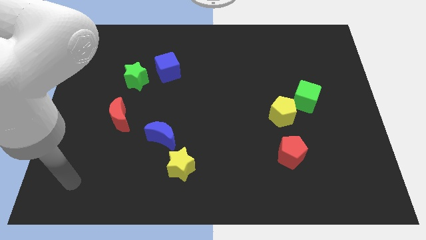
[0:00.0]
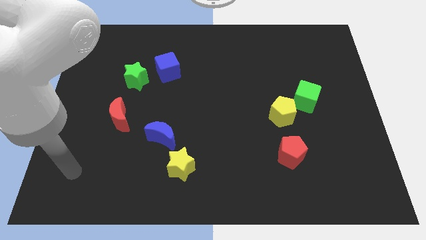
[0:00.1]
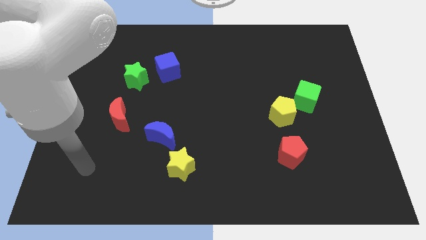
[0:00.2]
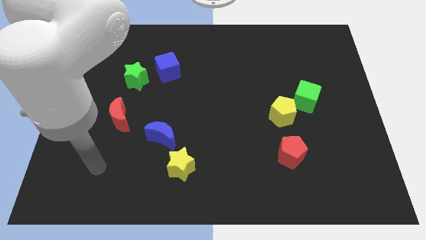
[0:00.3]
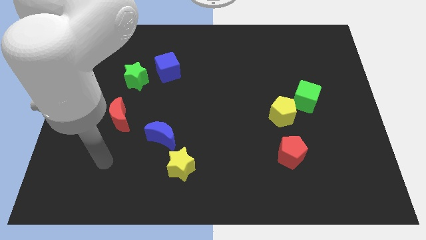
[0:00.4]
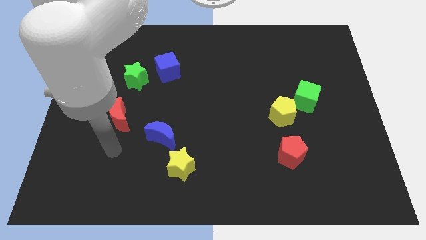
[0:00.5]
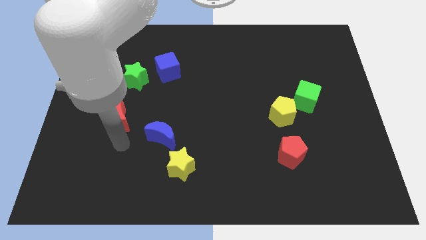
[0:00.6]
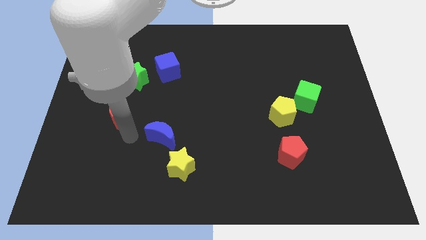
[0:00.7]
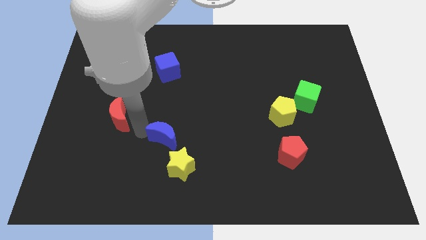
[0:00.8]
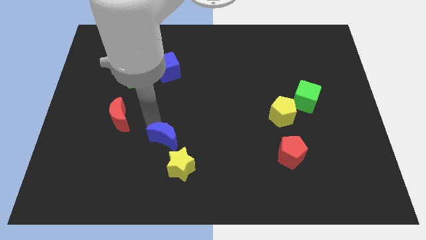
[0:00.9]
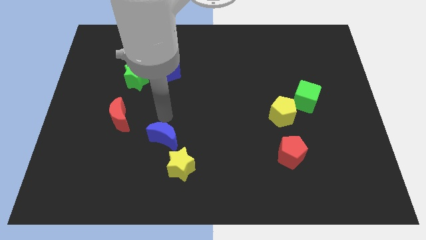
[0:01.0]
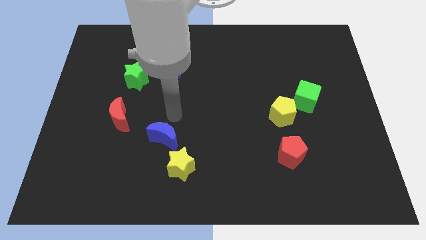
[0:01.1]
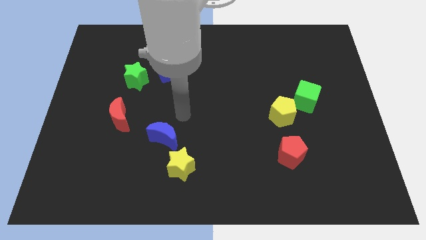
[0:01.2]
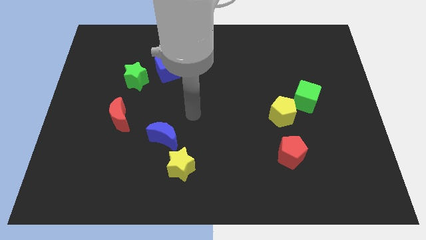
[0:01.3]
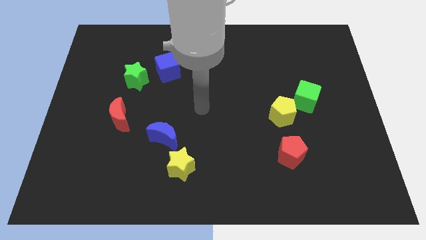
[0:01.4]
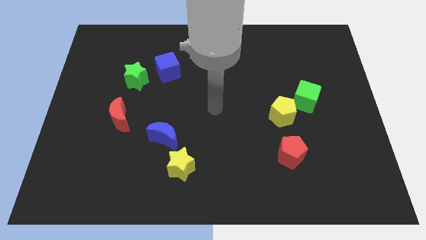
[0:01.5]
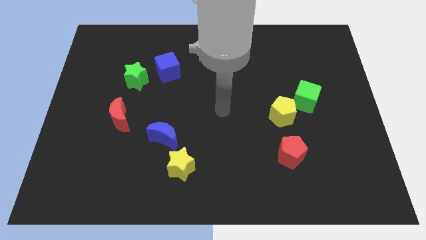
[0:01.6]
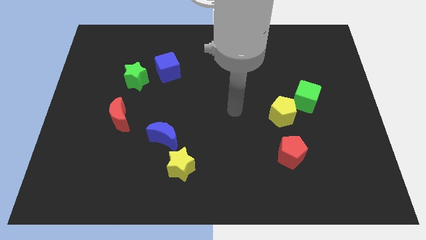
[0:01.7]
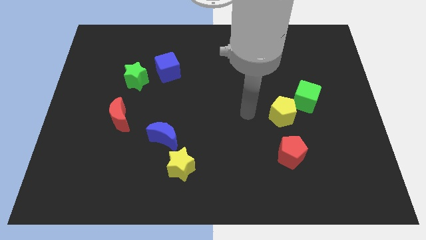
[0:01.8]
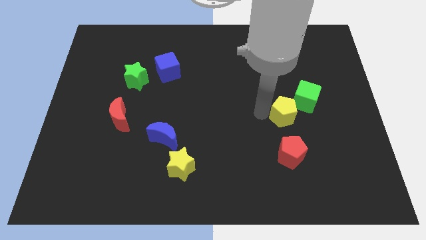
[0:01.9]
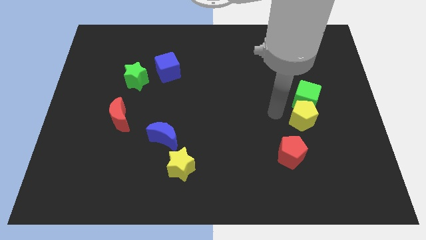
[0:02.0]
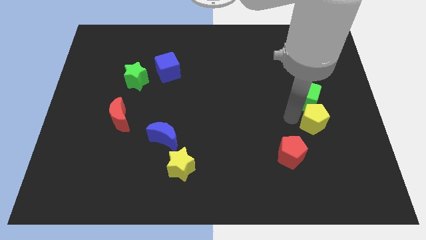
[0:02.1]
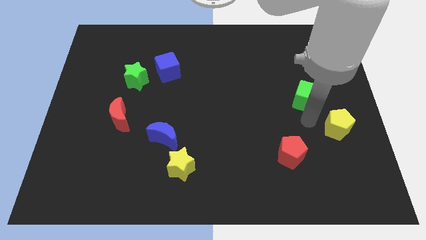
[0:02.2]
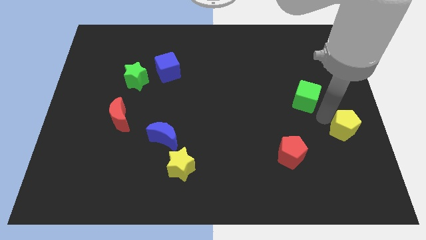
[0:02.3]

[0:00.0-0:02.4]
separate the green cube from the yellow pentagon

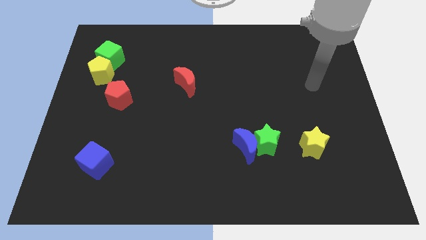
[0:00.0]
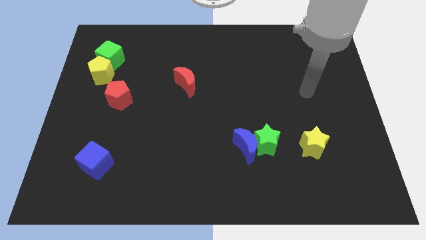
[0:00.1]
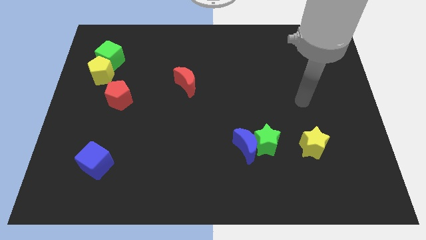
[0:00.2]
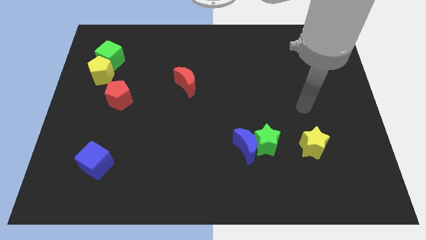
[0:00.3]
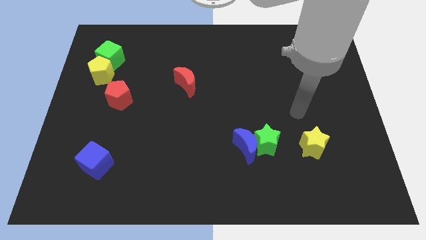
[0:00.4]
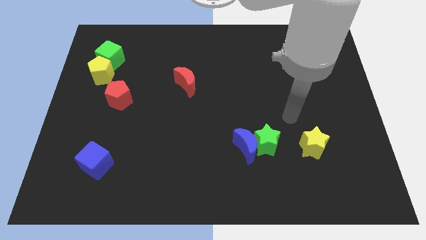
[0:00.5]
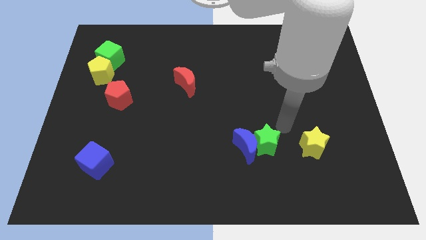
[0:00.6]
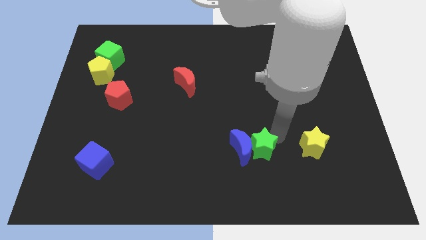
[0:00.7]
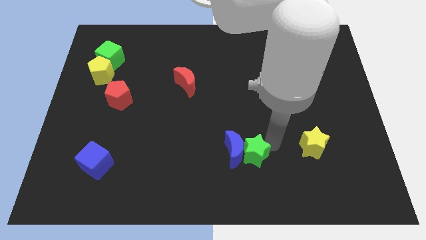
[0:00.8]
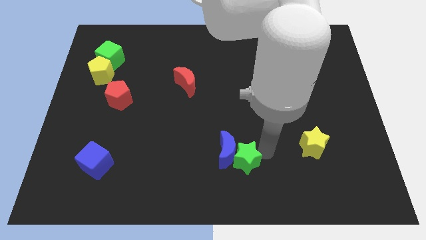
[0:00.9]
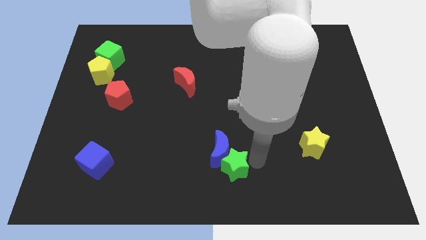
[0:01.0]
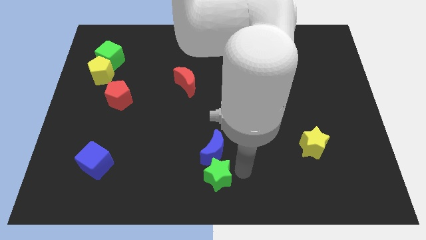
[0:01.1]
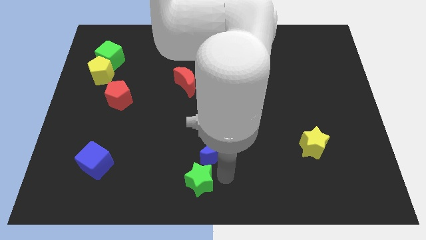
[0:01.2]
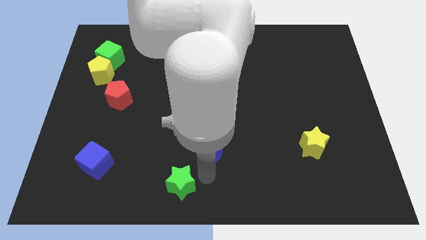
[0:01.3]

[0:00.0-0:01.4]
move the blue moon away from the green star

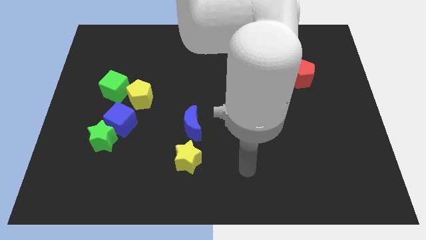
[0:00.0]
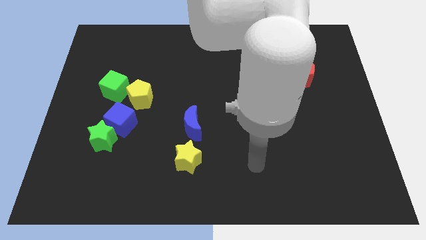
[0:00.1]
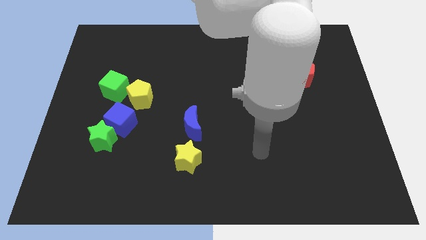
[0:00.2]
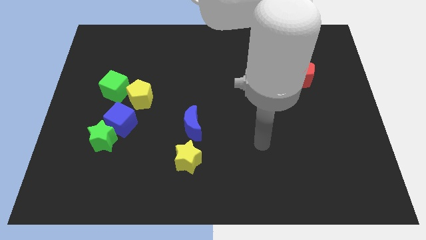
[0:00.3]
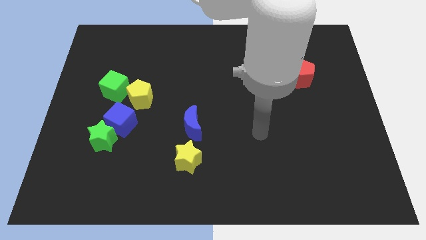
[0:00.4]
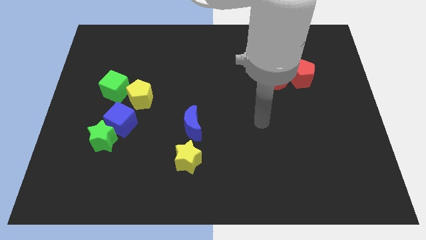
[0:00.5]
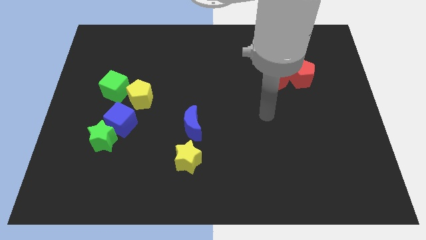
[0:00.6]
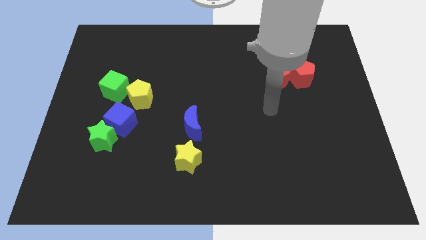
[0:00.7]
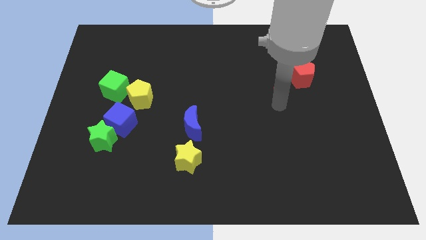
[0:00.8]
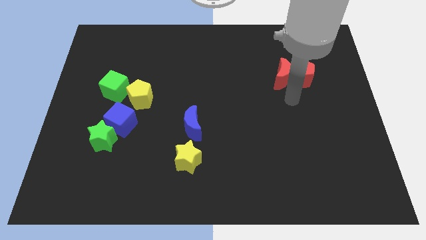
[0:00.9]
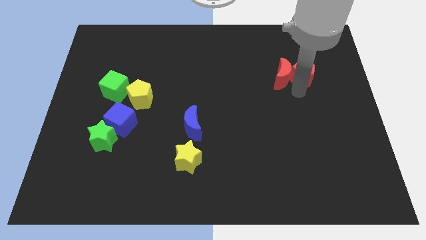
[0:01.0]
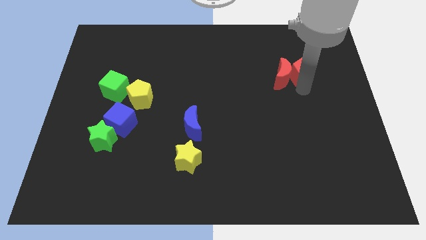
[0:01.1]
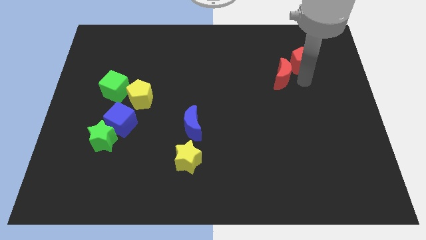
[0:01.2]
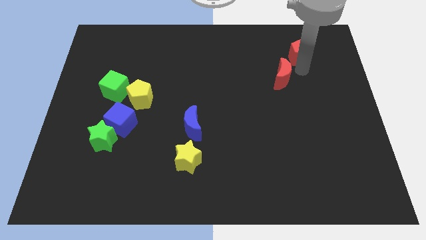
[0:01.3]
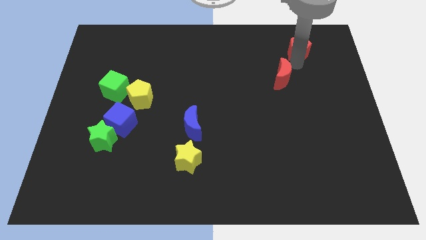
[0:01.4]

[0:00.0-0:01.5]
separate the red moon from the red pentagon

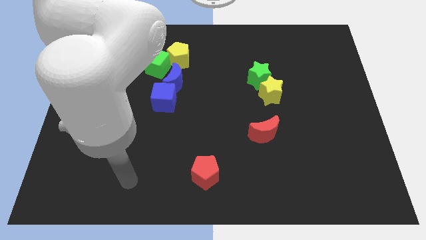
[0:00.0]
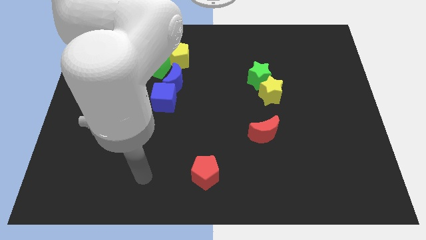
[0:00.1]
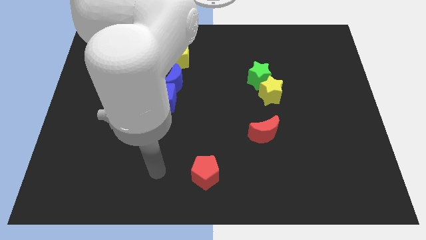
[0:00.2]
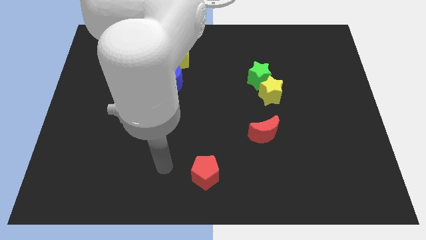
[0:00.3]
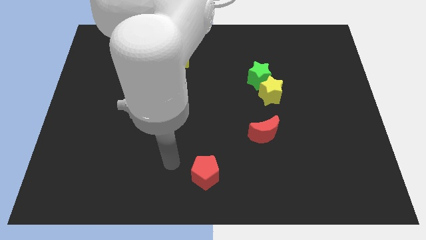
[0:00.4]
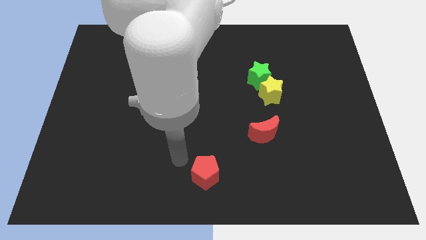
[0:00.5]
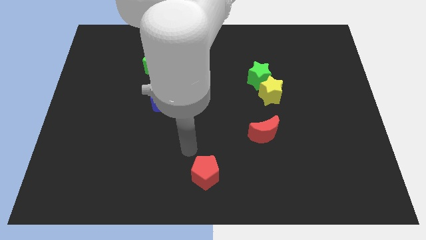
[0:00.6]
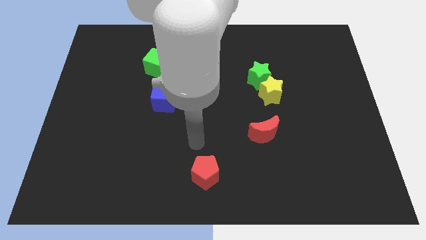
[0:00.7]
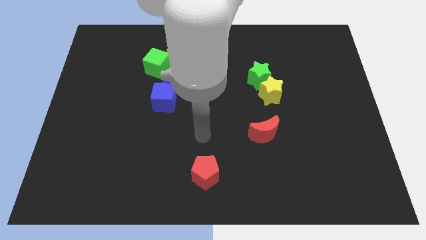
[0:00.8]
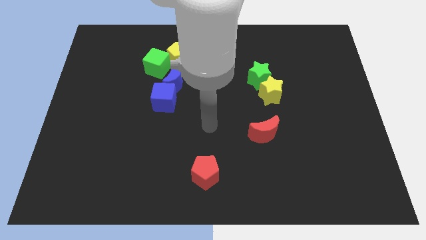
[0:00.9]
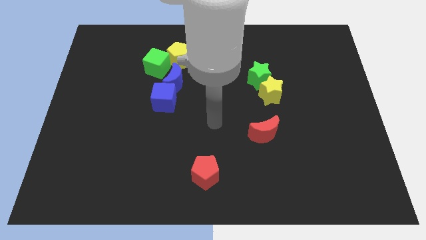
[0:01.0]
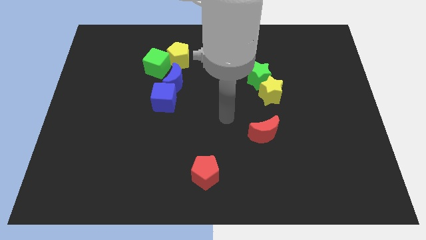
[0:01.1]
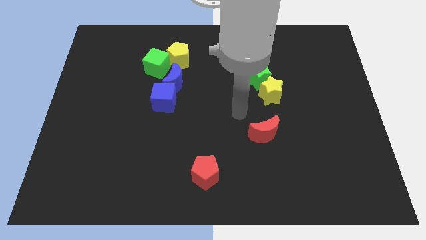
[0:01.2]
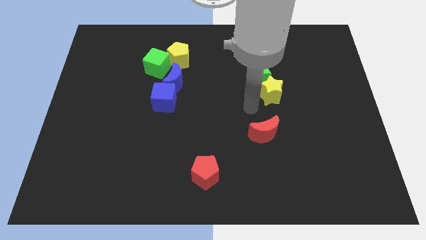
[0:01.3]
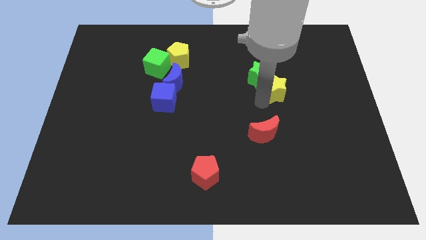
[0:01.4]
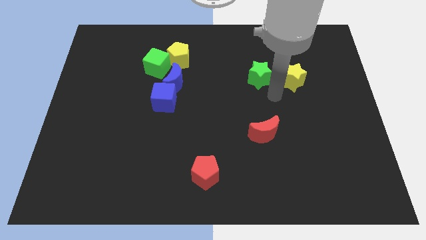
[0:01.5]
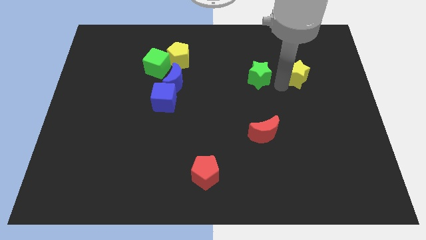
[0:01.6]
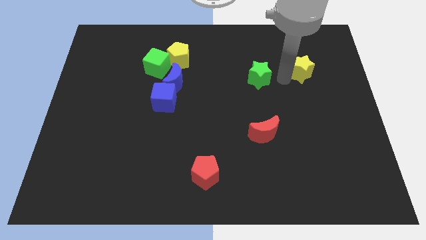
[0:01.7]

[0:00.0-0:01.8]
separate the green star from the yellow star

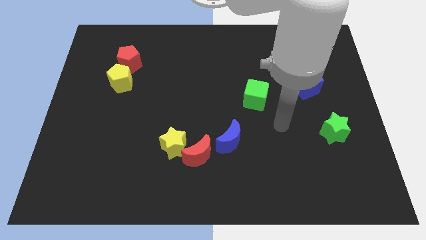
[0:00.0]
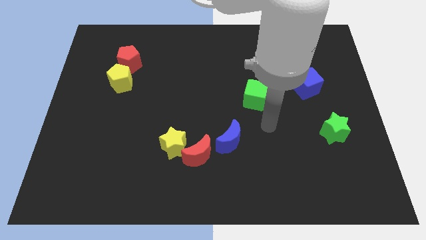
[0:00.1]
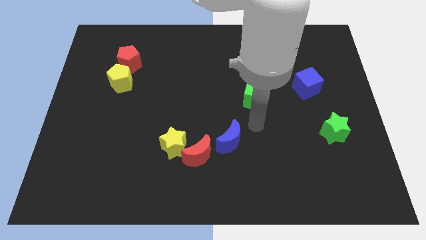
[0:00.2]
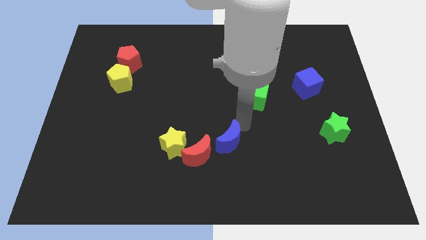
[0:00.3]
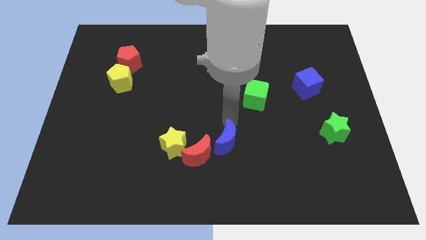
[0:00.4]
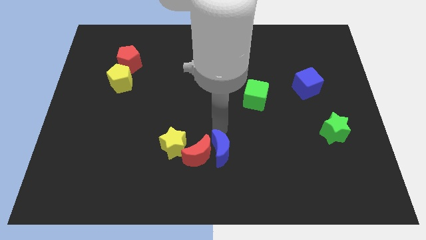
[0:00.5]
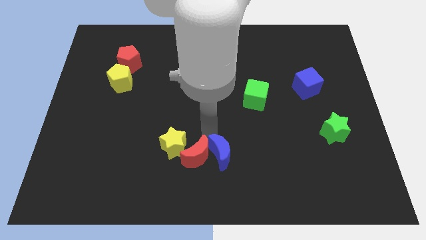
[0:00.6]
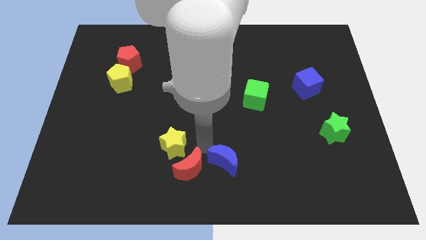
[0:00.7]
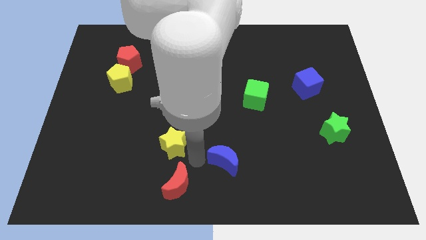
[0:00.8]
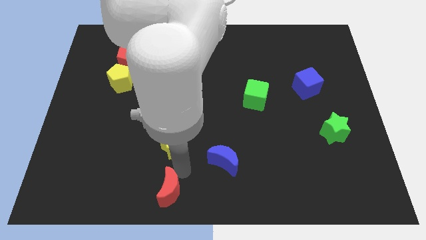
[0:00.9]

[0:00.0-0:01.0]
separate the yellow star from the red moon

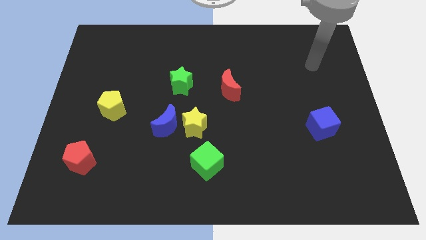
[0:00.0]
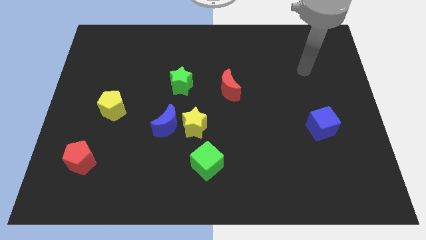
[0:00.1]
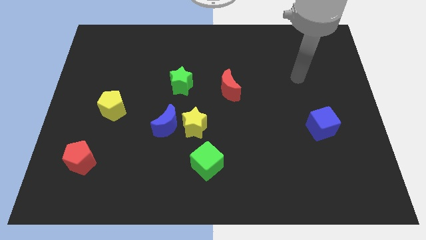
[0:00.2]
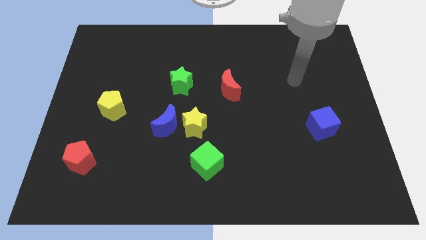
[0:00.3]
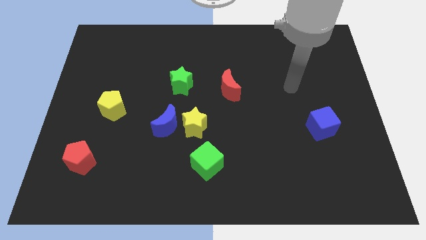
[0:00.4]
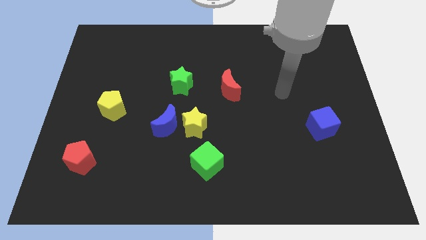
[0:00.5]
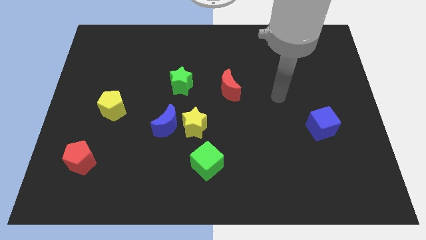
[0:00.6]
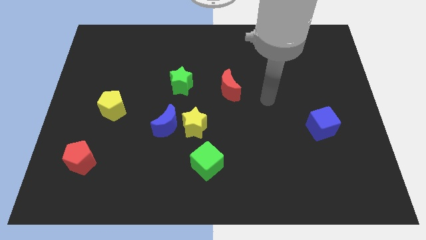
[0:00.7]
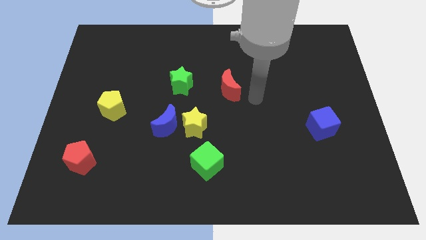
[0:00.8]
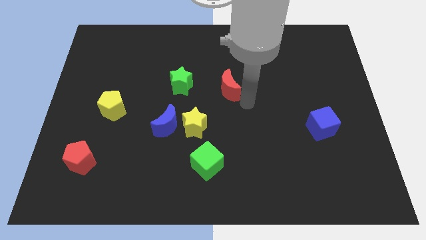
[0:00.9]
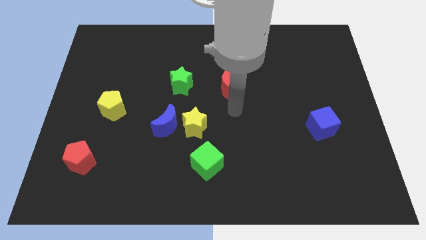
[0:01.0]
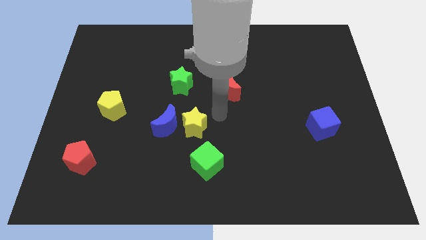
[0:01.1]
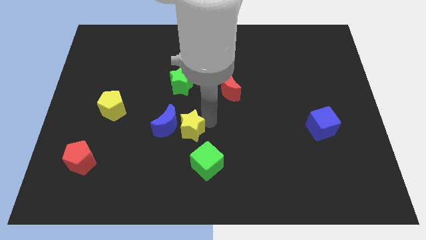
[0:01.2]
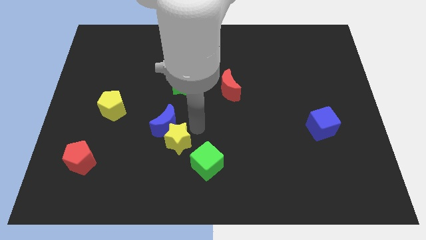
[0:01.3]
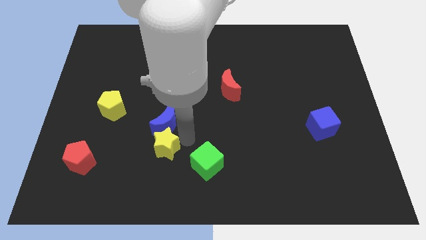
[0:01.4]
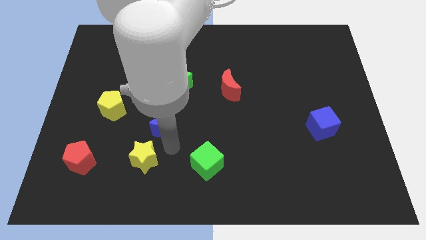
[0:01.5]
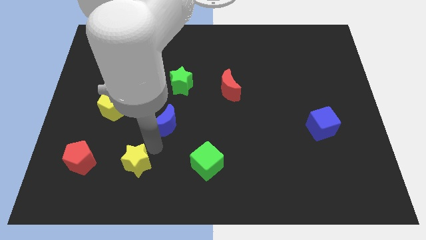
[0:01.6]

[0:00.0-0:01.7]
move the blue moon away from the yellow star
